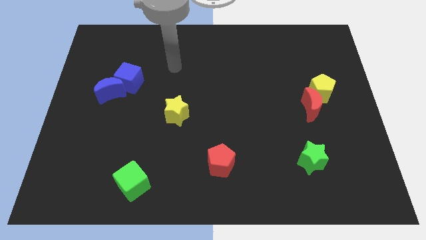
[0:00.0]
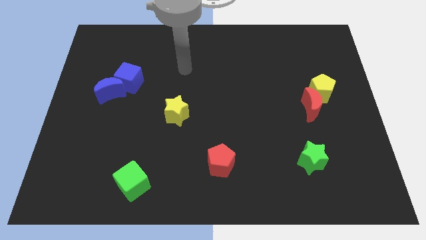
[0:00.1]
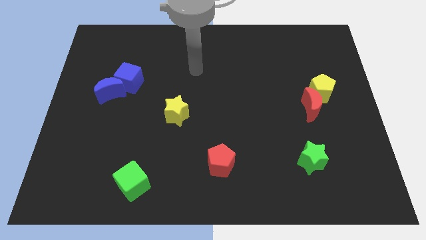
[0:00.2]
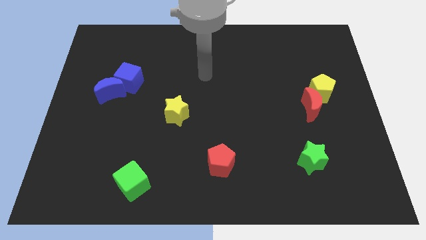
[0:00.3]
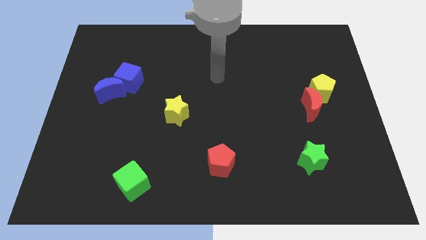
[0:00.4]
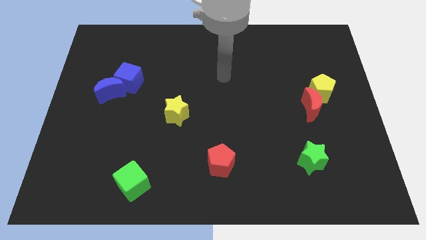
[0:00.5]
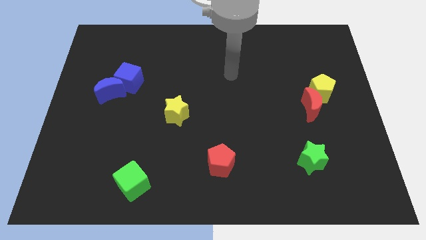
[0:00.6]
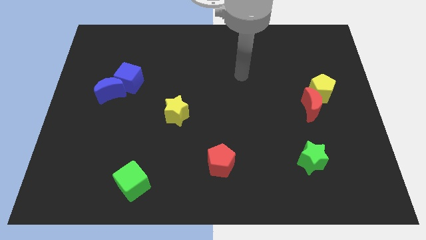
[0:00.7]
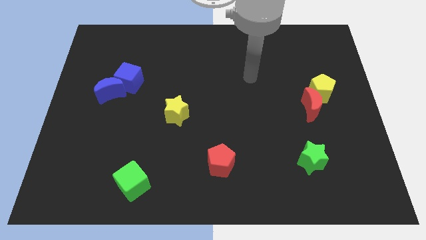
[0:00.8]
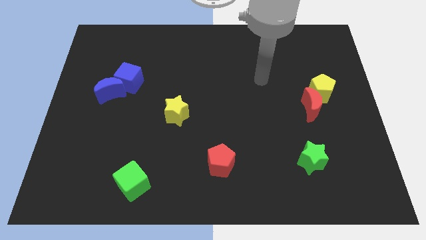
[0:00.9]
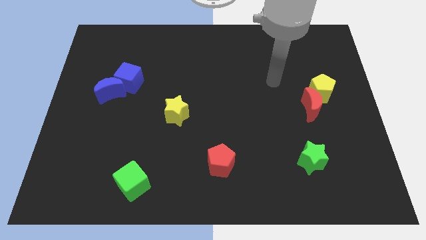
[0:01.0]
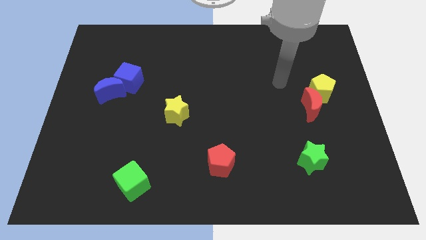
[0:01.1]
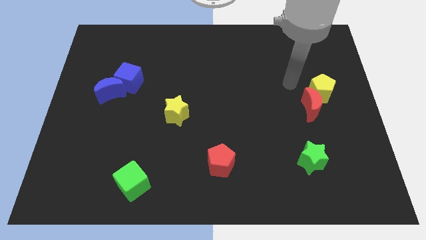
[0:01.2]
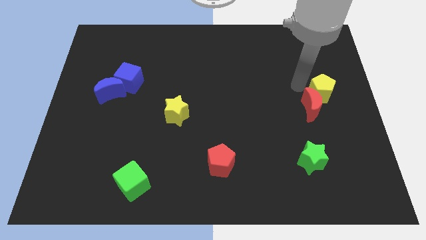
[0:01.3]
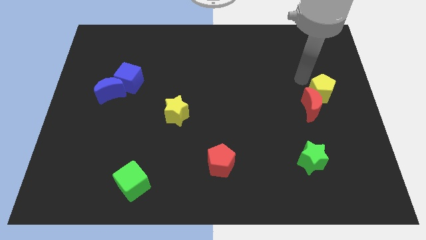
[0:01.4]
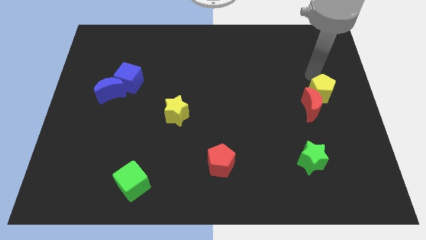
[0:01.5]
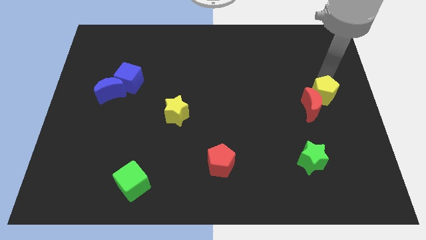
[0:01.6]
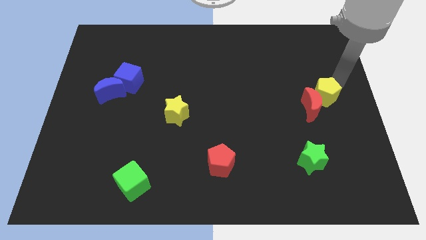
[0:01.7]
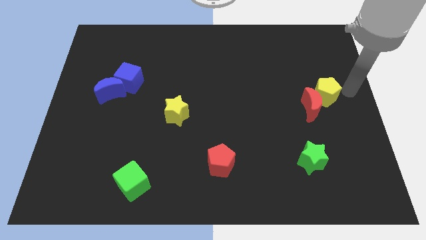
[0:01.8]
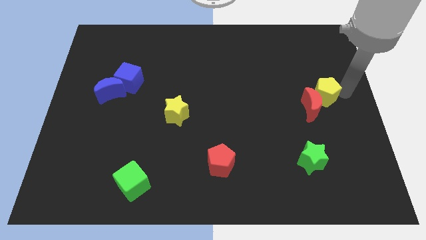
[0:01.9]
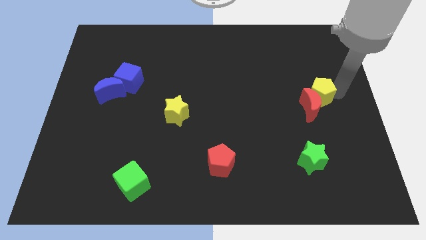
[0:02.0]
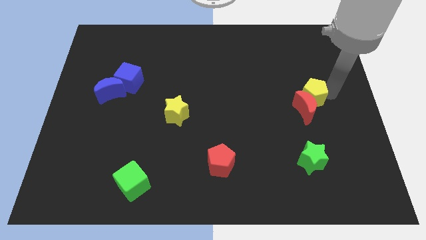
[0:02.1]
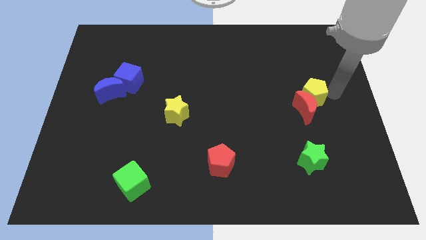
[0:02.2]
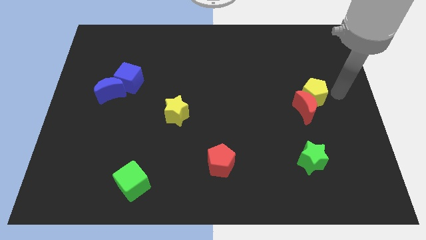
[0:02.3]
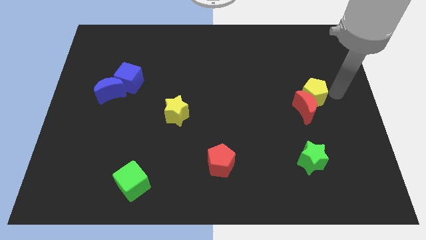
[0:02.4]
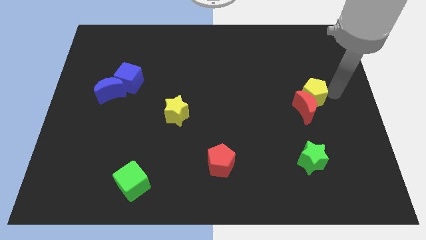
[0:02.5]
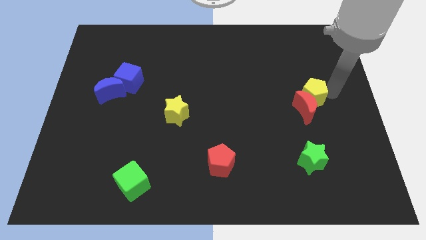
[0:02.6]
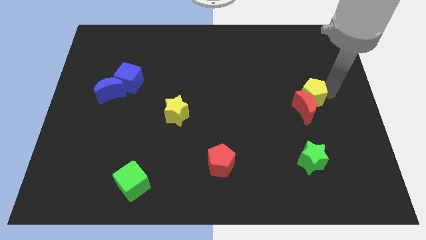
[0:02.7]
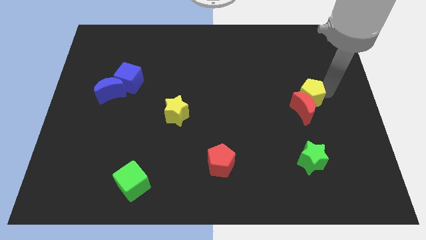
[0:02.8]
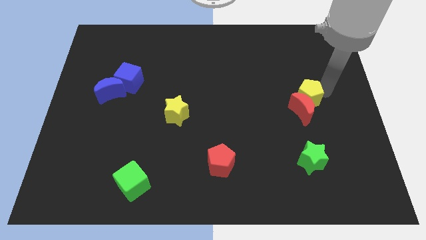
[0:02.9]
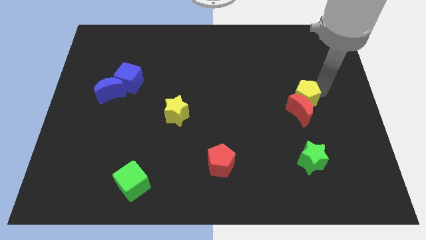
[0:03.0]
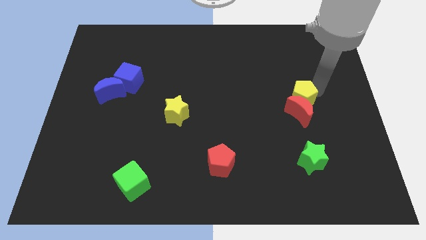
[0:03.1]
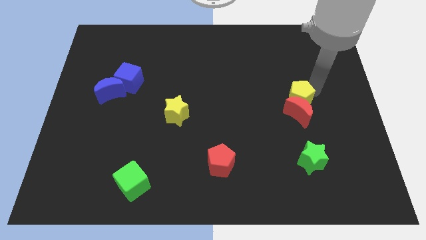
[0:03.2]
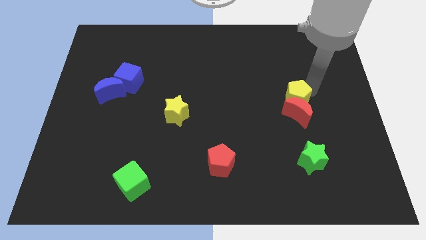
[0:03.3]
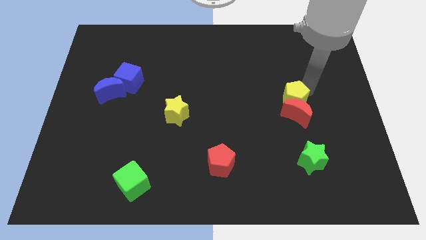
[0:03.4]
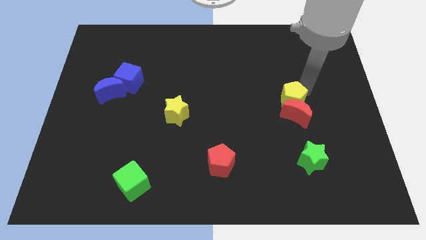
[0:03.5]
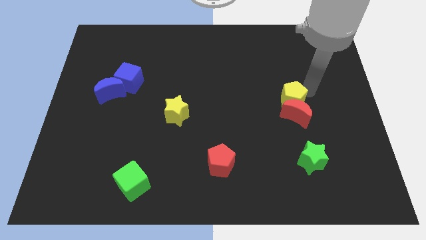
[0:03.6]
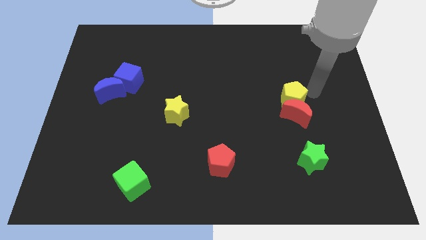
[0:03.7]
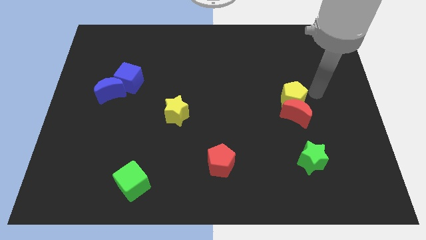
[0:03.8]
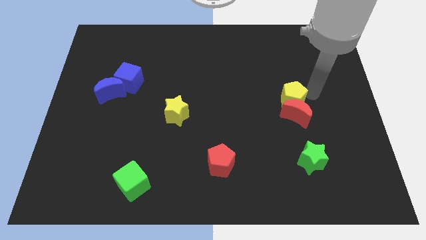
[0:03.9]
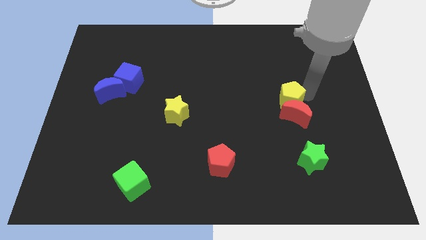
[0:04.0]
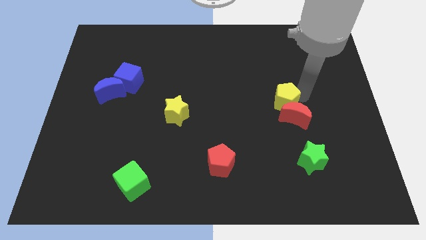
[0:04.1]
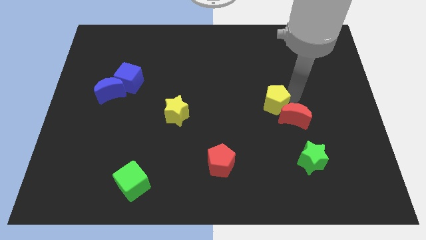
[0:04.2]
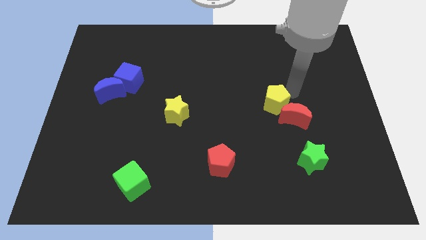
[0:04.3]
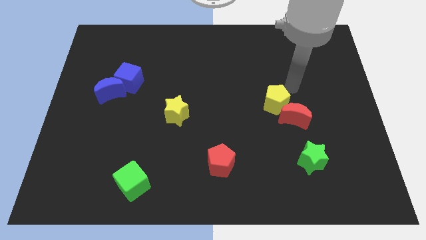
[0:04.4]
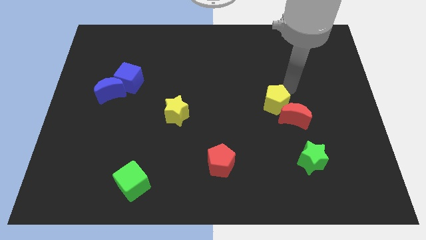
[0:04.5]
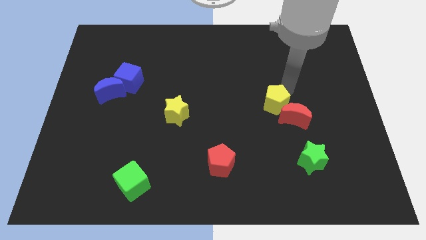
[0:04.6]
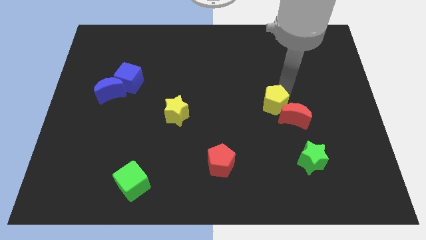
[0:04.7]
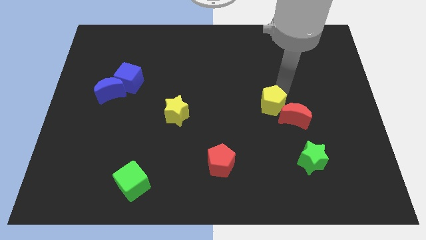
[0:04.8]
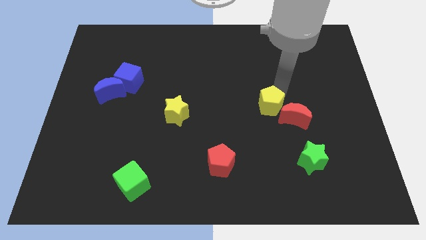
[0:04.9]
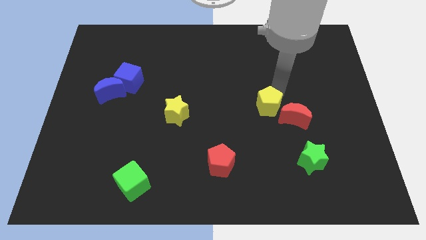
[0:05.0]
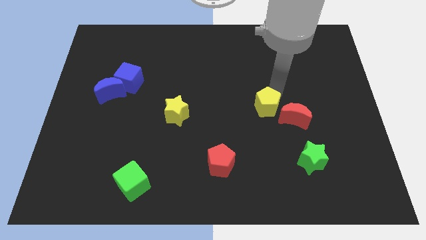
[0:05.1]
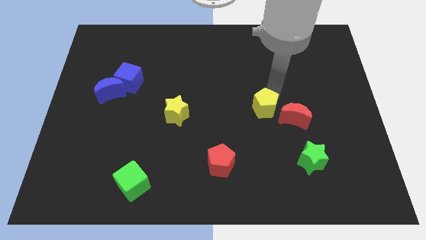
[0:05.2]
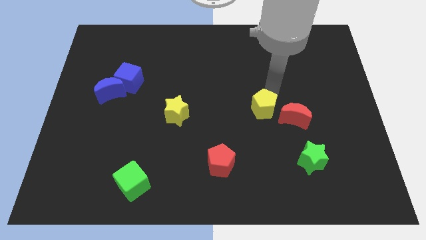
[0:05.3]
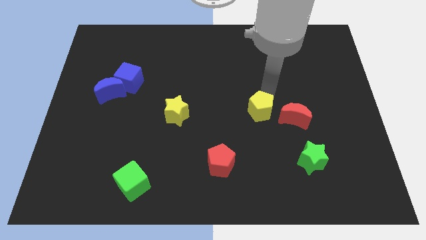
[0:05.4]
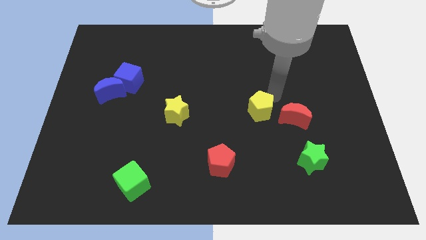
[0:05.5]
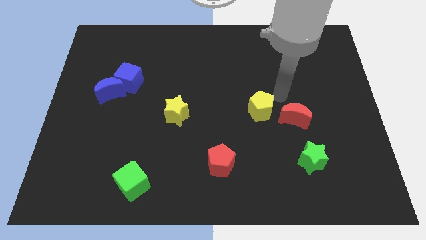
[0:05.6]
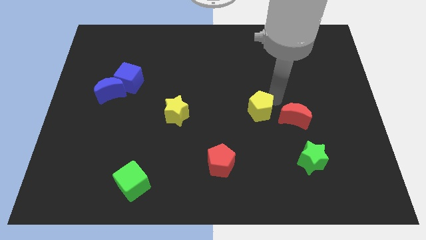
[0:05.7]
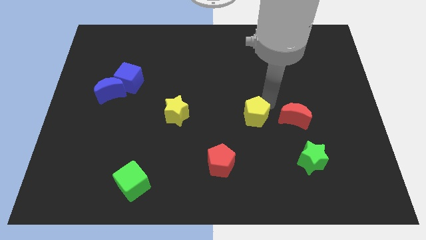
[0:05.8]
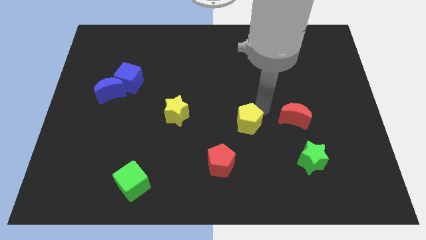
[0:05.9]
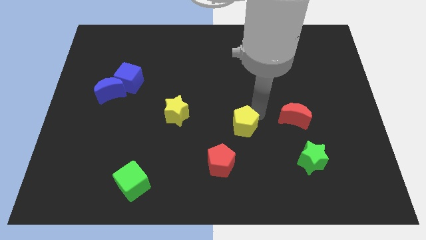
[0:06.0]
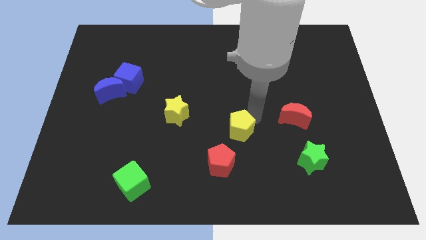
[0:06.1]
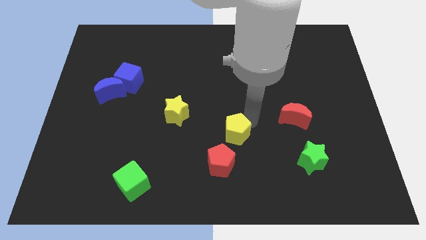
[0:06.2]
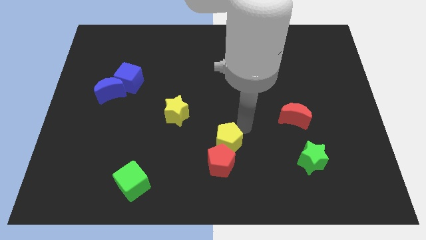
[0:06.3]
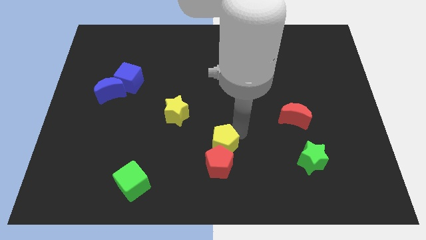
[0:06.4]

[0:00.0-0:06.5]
put the yellow pentagon to the top left side of the red pentagon
